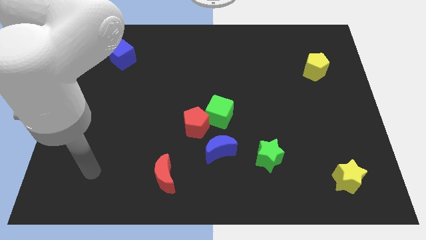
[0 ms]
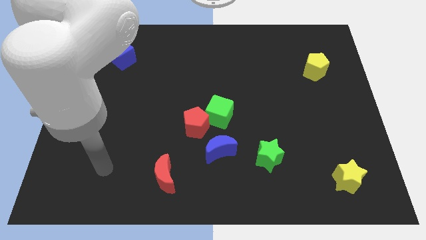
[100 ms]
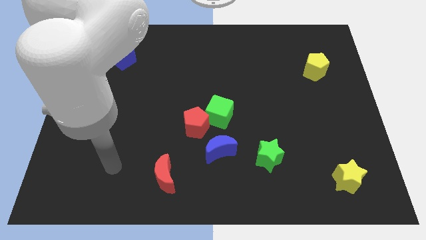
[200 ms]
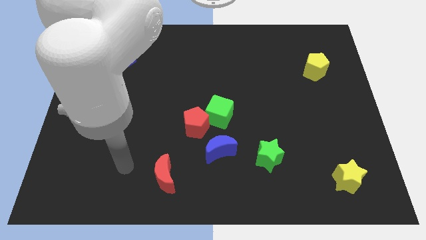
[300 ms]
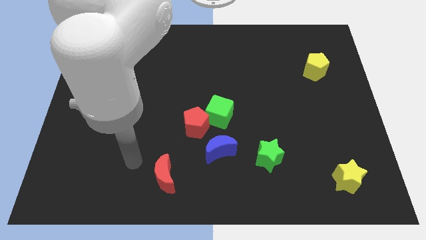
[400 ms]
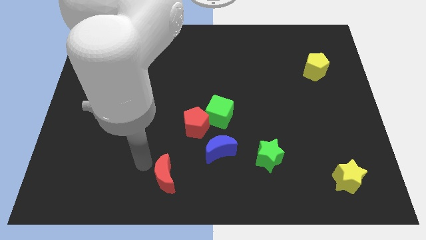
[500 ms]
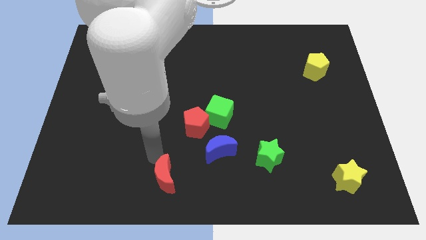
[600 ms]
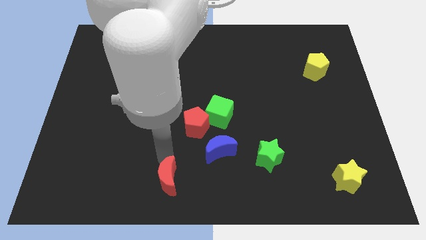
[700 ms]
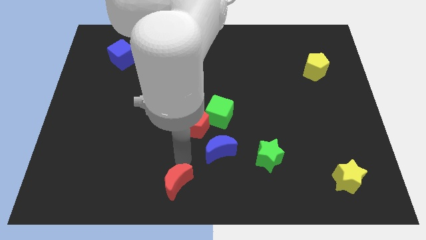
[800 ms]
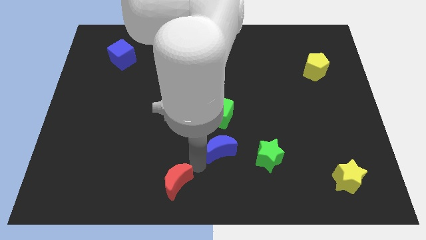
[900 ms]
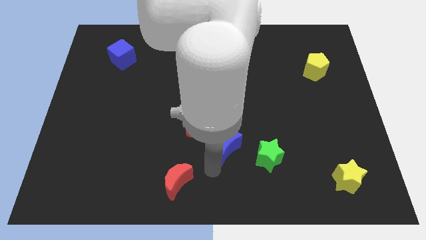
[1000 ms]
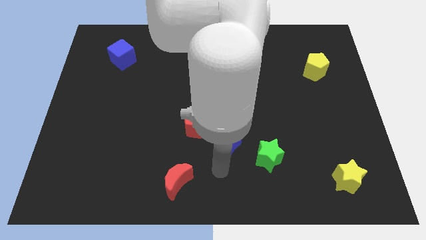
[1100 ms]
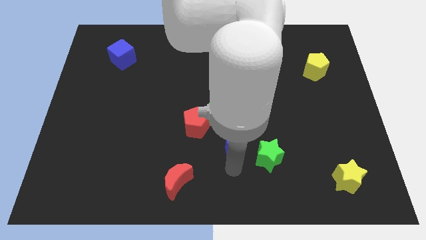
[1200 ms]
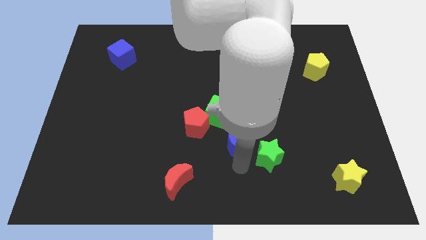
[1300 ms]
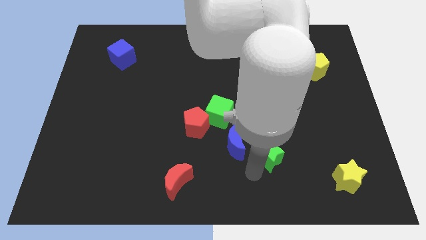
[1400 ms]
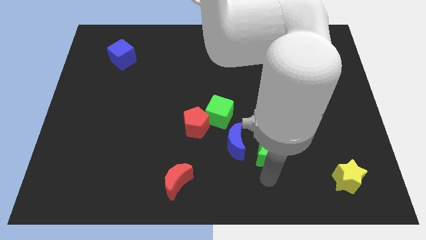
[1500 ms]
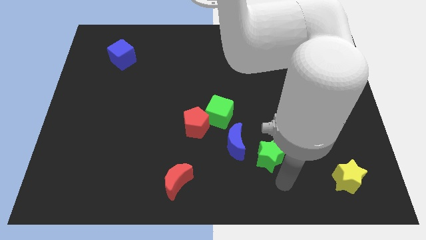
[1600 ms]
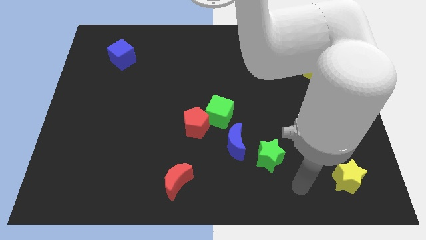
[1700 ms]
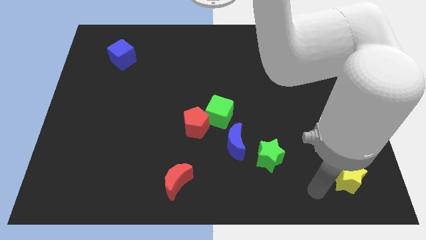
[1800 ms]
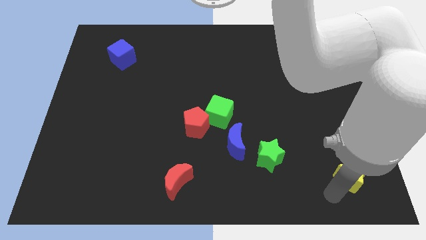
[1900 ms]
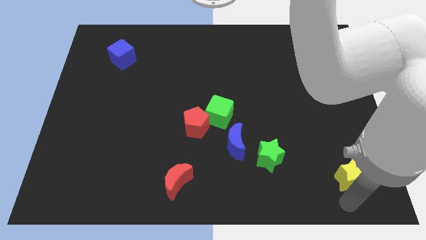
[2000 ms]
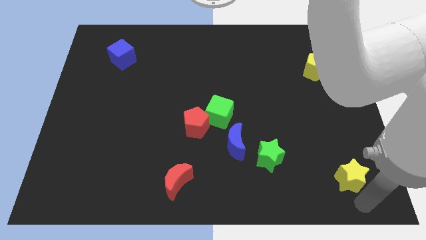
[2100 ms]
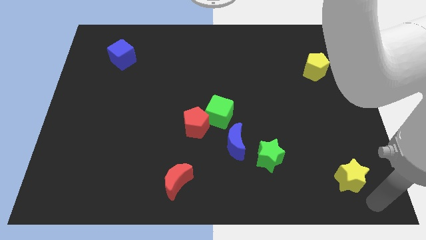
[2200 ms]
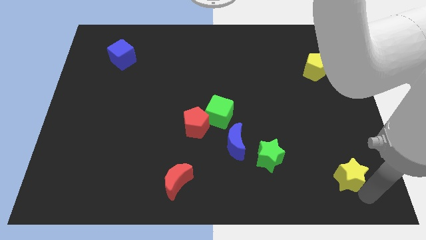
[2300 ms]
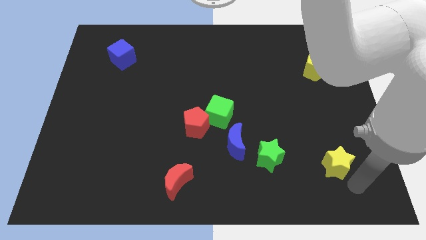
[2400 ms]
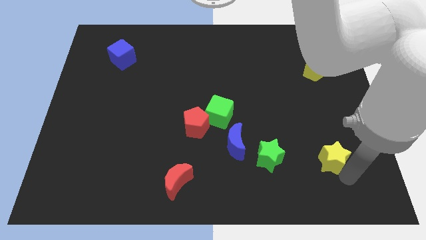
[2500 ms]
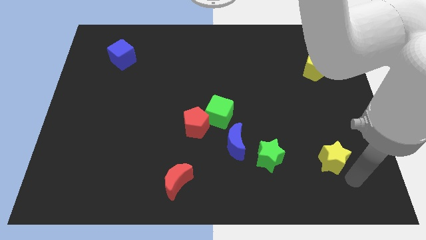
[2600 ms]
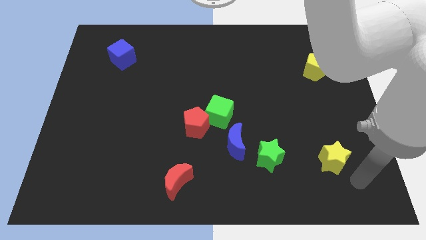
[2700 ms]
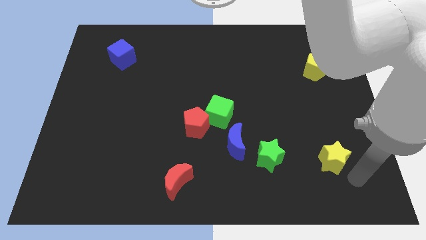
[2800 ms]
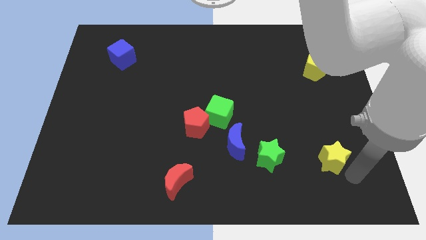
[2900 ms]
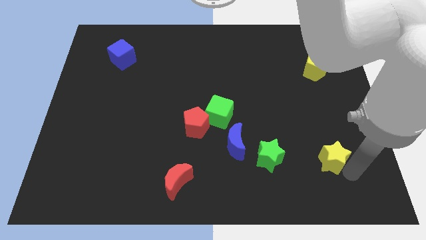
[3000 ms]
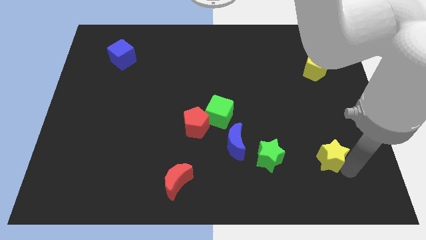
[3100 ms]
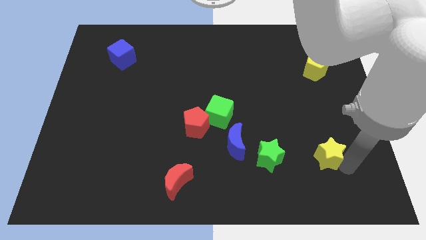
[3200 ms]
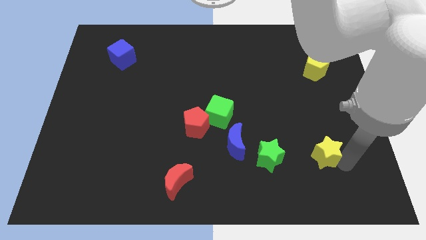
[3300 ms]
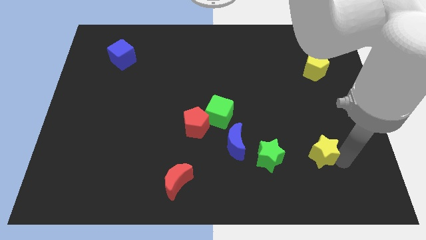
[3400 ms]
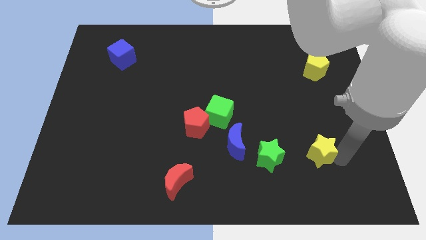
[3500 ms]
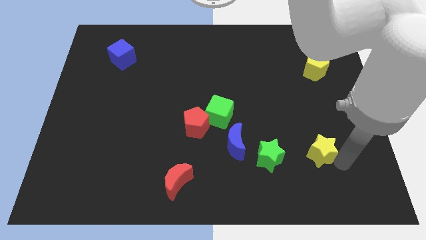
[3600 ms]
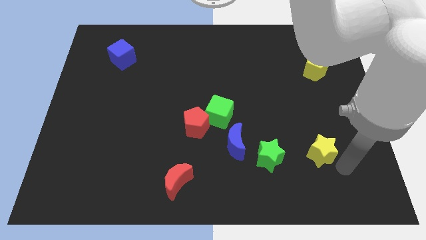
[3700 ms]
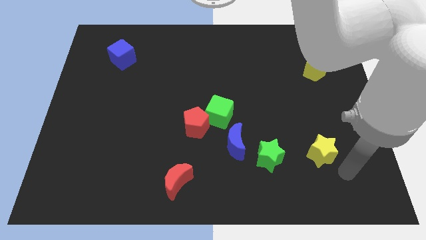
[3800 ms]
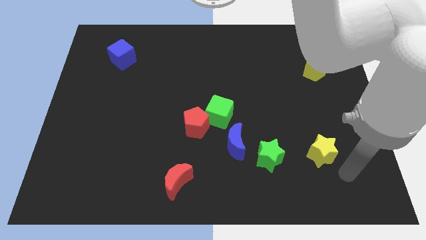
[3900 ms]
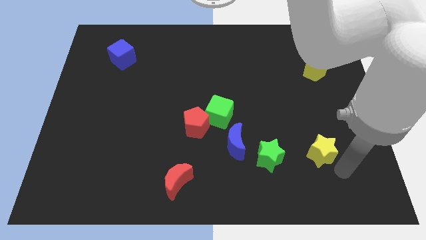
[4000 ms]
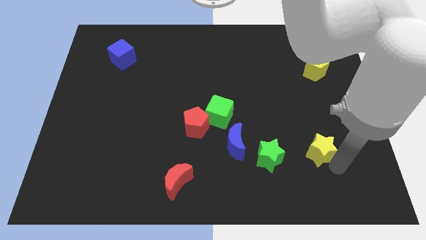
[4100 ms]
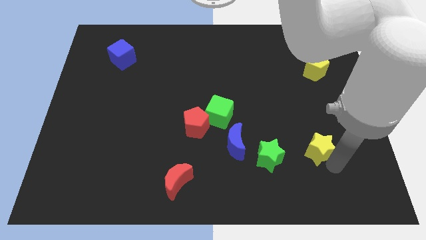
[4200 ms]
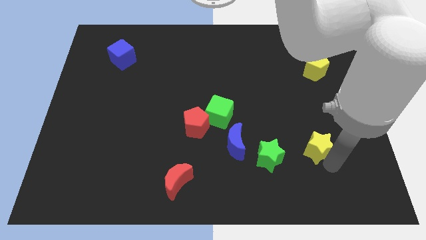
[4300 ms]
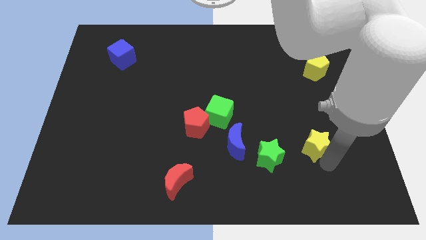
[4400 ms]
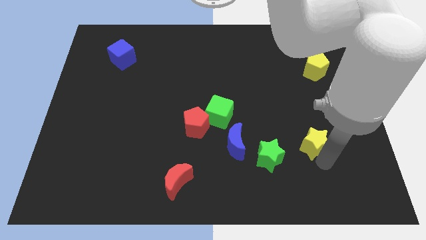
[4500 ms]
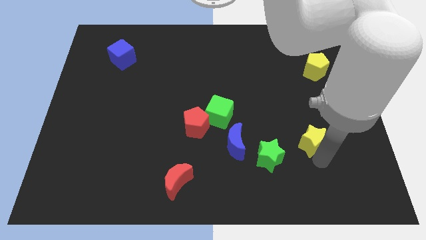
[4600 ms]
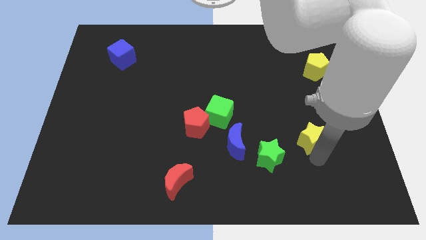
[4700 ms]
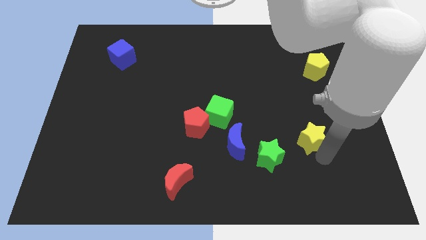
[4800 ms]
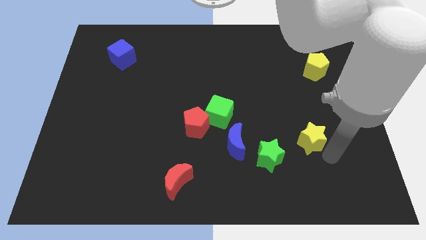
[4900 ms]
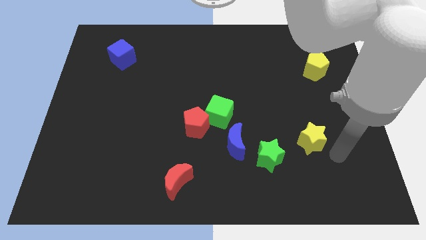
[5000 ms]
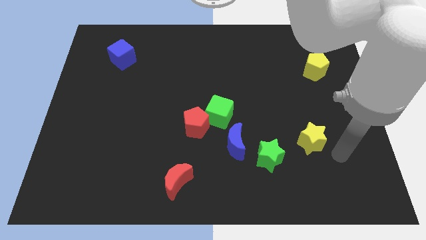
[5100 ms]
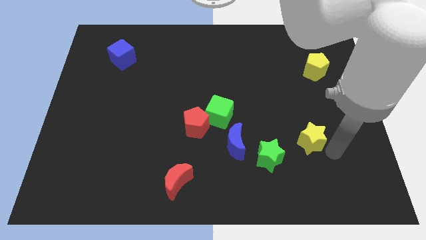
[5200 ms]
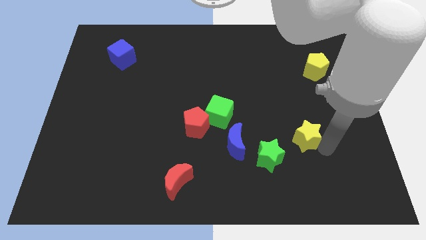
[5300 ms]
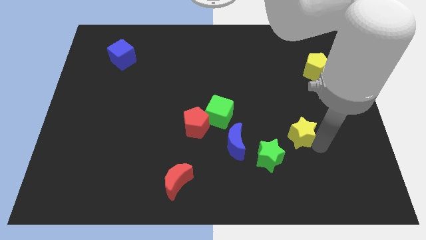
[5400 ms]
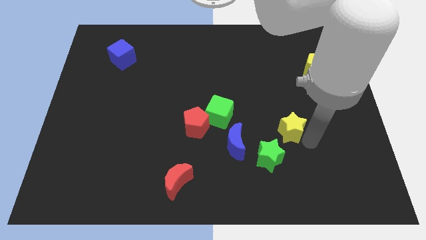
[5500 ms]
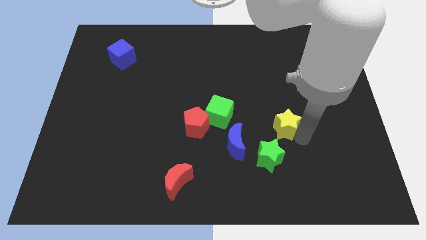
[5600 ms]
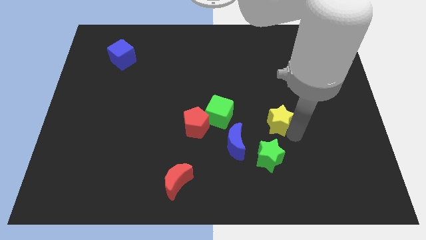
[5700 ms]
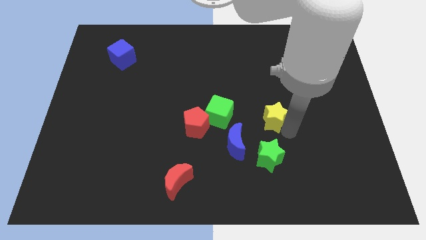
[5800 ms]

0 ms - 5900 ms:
move the yellow star diagonally up and to the left

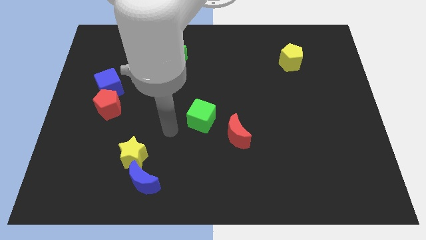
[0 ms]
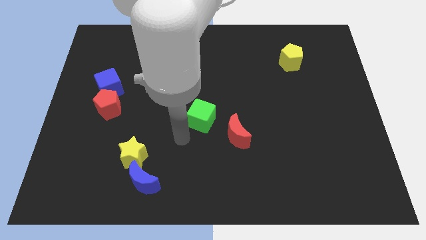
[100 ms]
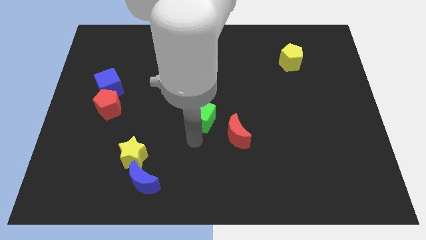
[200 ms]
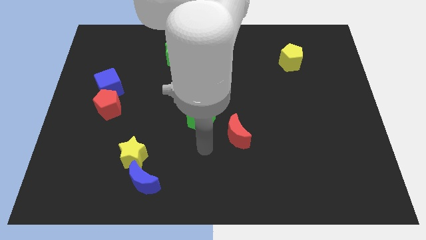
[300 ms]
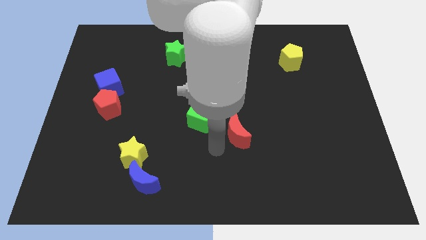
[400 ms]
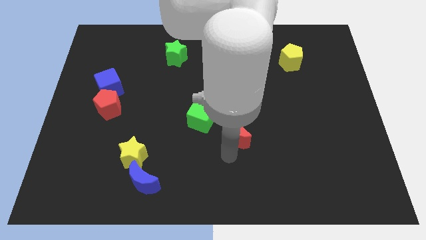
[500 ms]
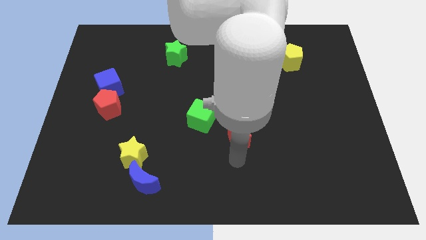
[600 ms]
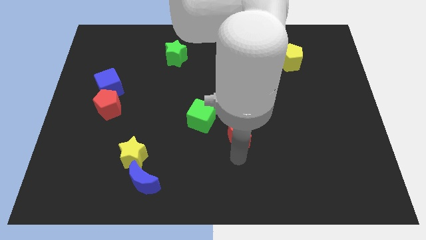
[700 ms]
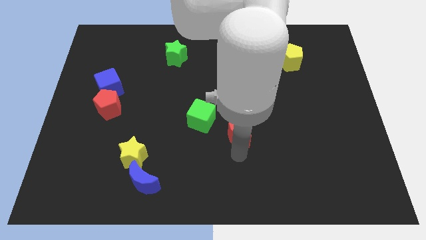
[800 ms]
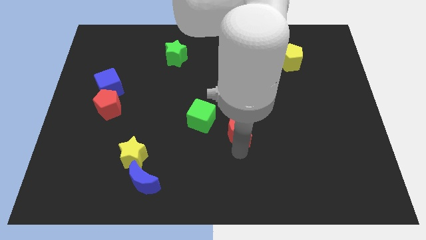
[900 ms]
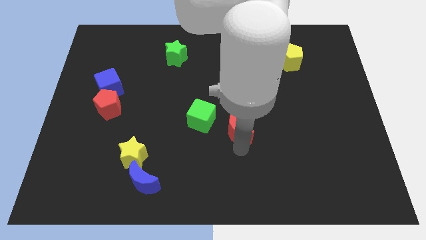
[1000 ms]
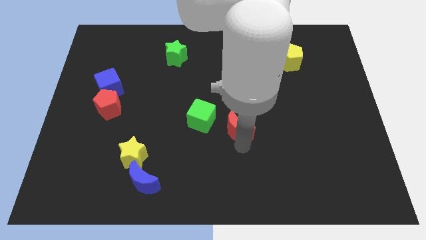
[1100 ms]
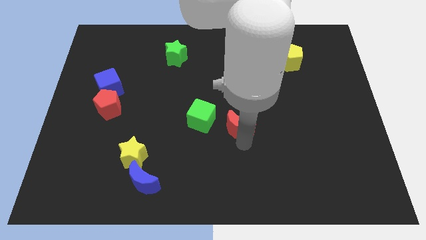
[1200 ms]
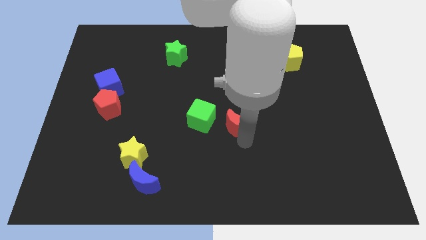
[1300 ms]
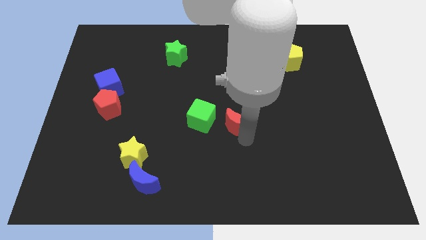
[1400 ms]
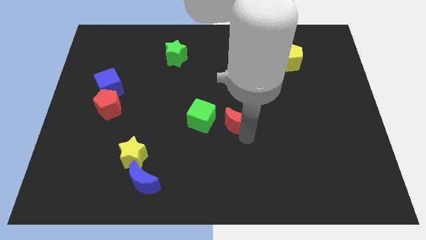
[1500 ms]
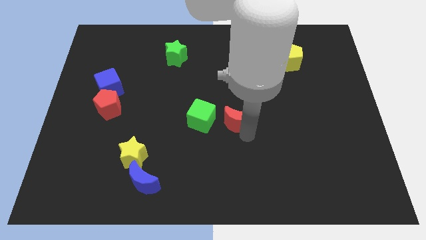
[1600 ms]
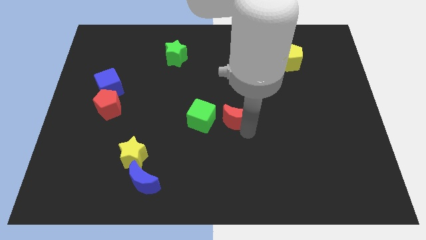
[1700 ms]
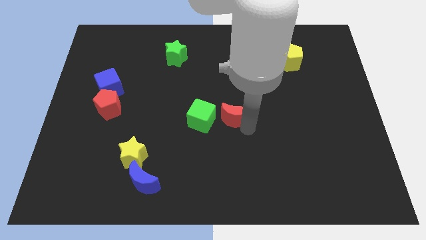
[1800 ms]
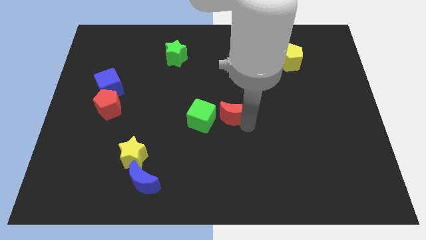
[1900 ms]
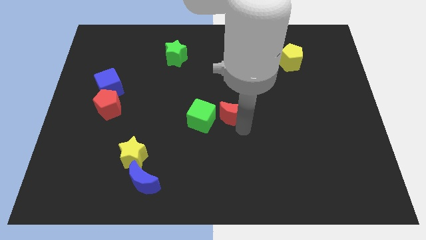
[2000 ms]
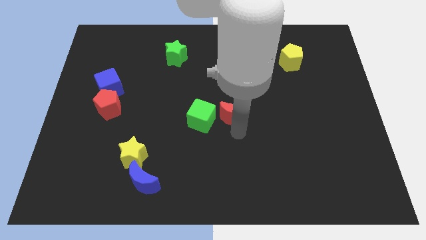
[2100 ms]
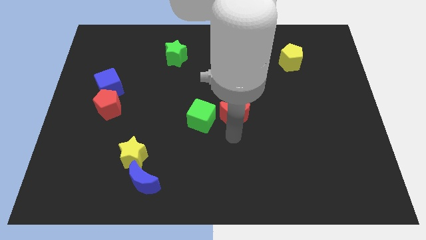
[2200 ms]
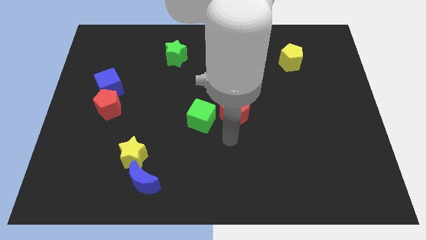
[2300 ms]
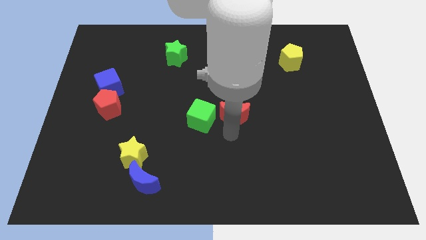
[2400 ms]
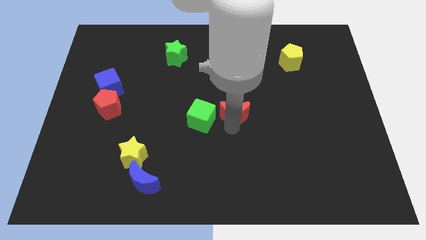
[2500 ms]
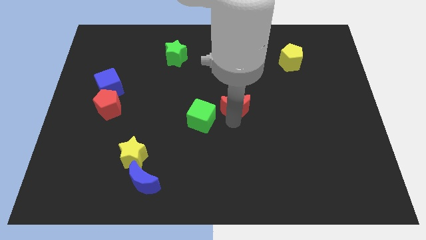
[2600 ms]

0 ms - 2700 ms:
slide the red moon upwards a little bit
